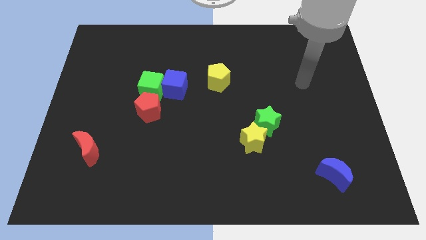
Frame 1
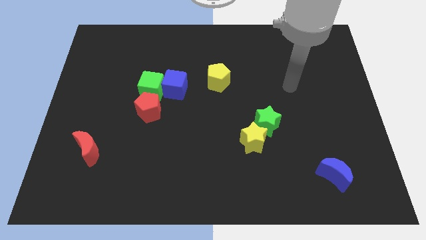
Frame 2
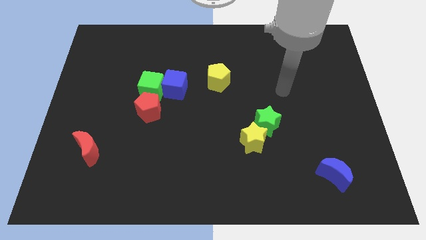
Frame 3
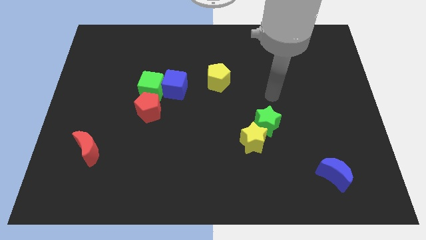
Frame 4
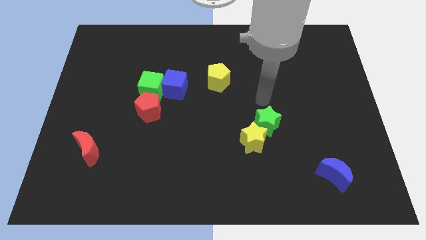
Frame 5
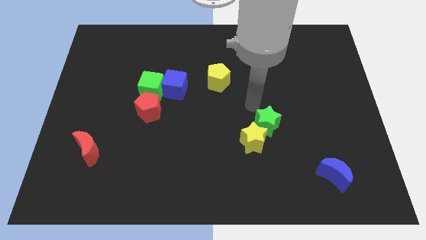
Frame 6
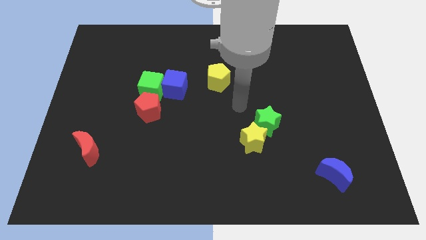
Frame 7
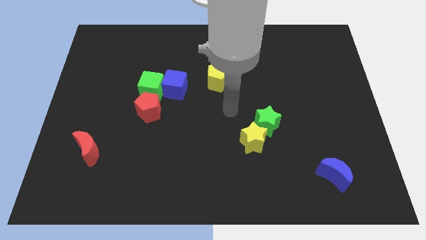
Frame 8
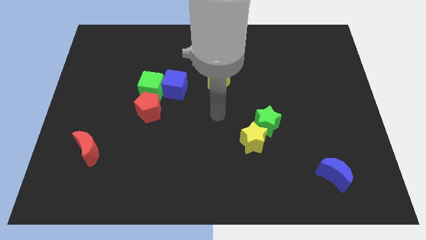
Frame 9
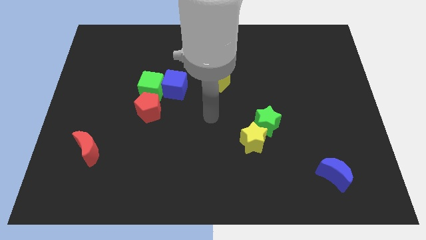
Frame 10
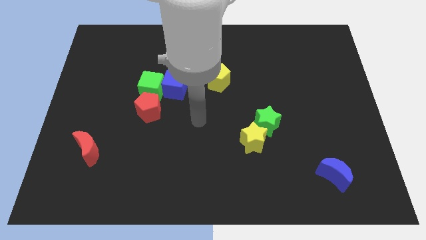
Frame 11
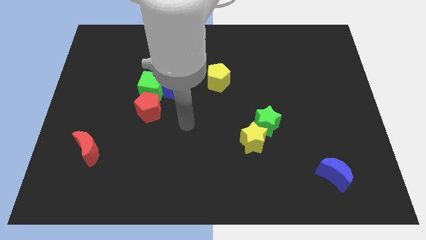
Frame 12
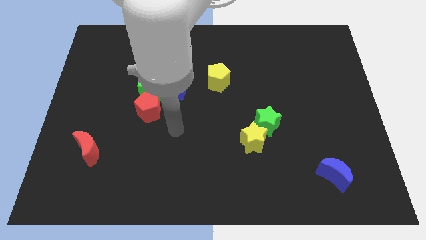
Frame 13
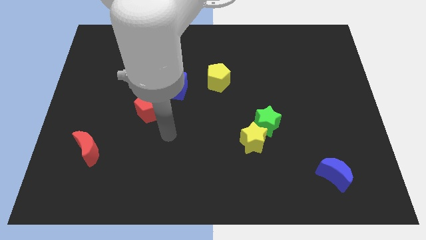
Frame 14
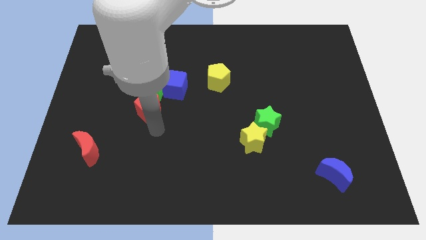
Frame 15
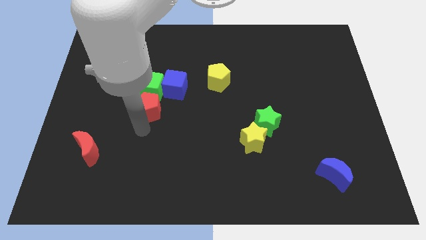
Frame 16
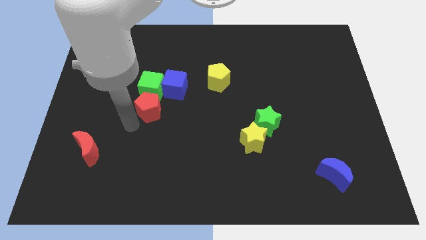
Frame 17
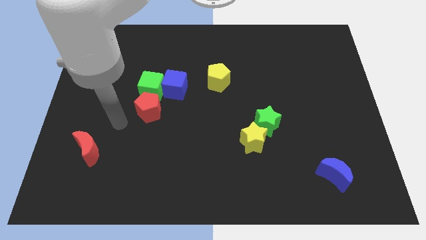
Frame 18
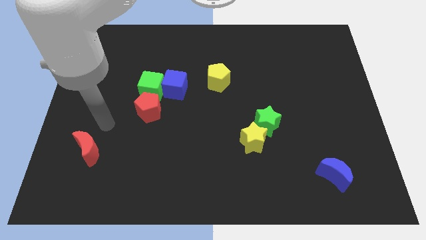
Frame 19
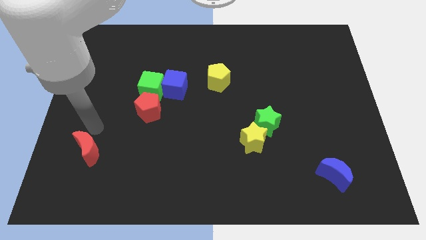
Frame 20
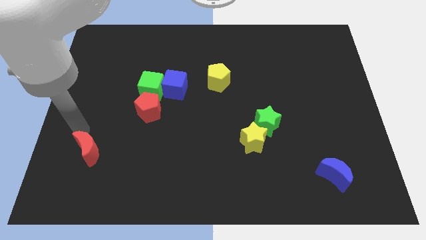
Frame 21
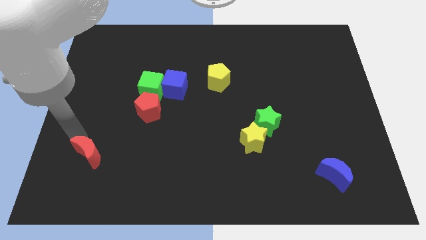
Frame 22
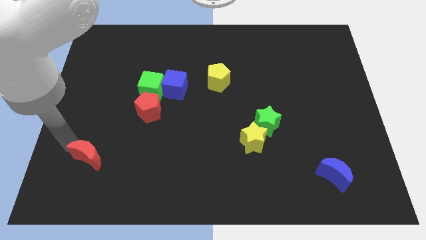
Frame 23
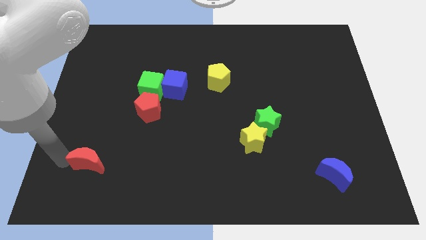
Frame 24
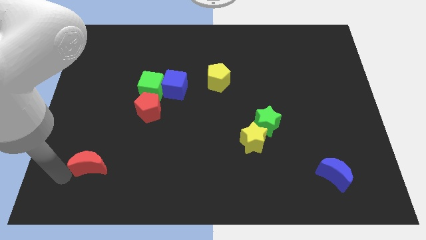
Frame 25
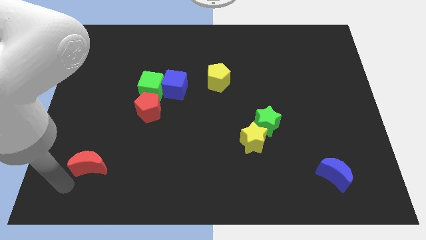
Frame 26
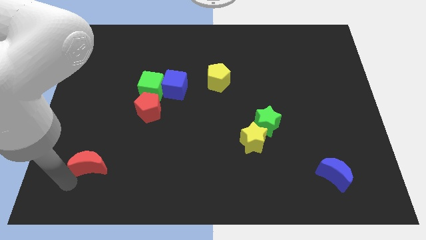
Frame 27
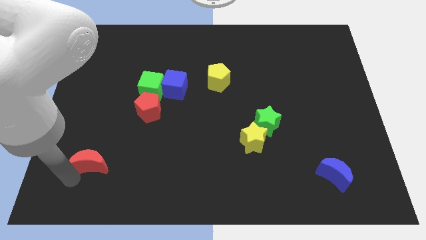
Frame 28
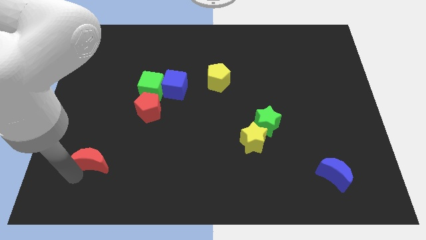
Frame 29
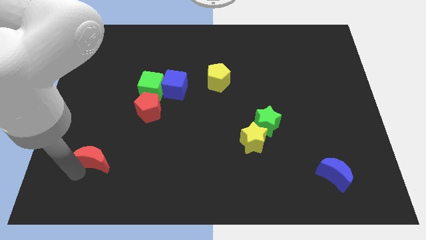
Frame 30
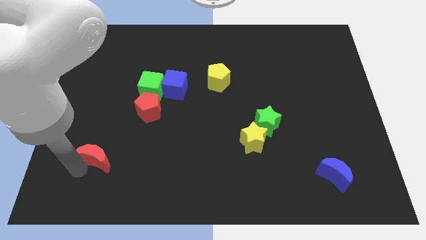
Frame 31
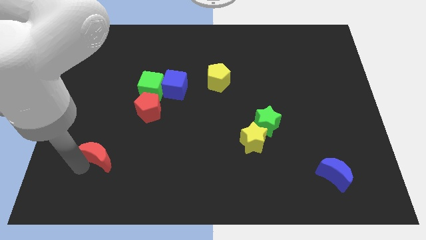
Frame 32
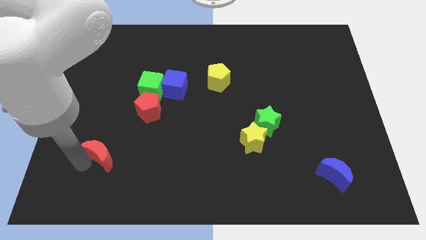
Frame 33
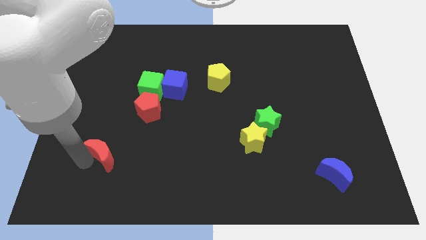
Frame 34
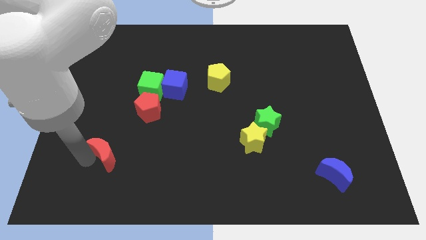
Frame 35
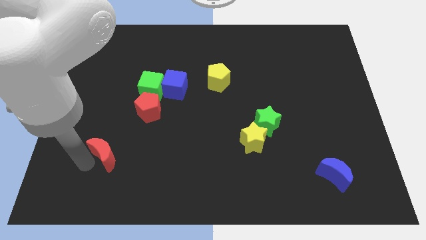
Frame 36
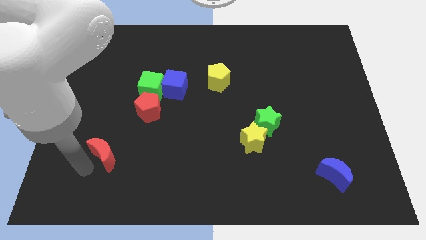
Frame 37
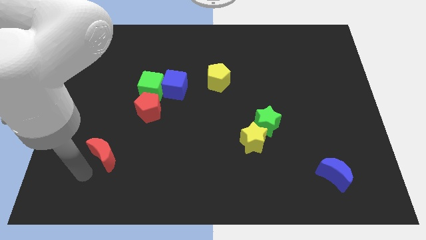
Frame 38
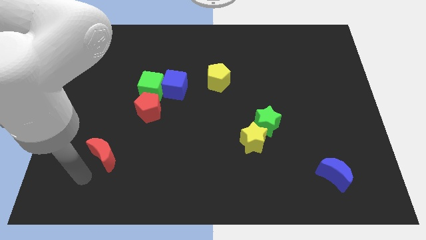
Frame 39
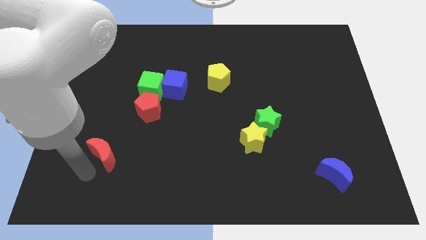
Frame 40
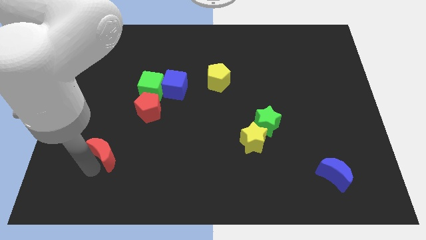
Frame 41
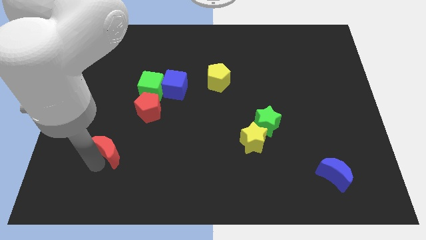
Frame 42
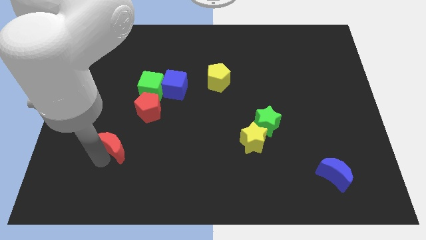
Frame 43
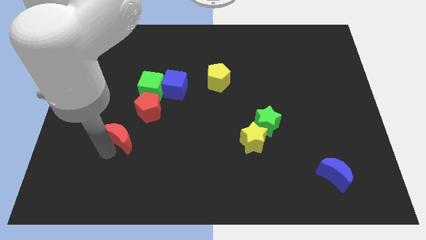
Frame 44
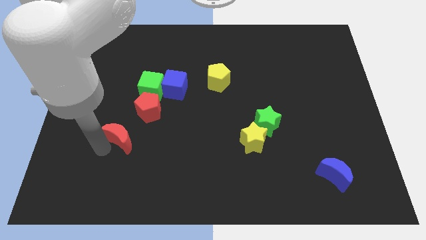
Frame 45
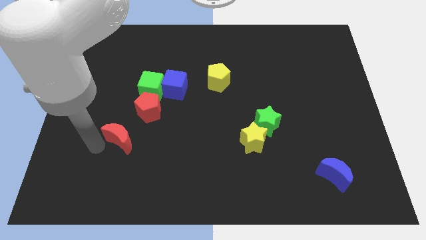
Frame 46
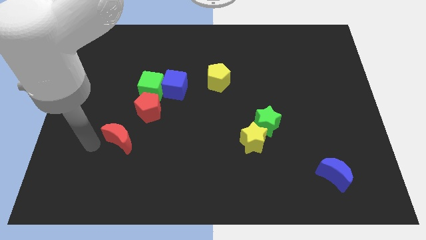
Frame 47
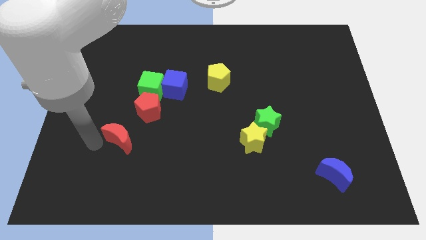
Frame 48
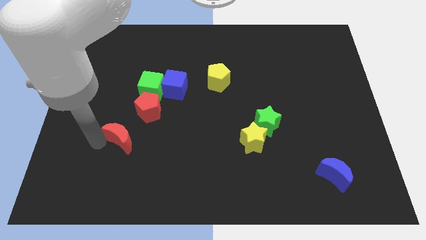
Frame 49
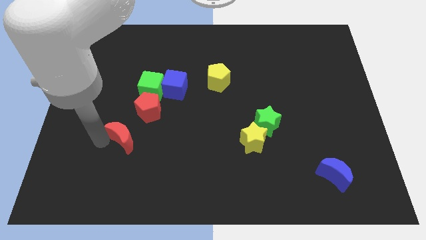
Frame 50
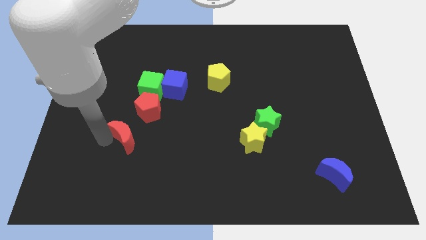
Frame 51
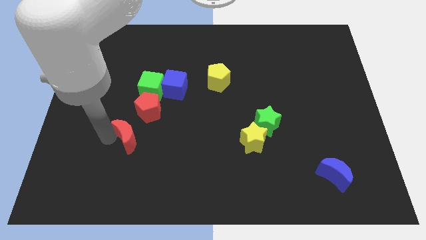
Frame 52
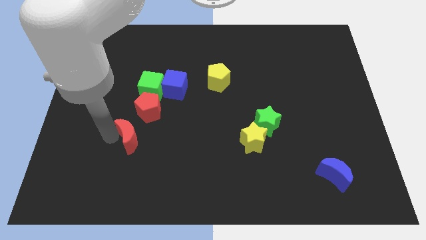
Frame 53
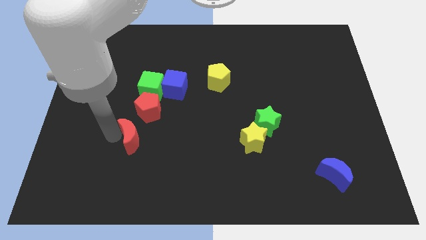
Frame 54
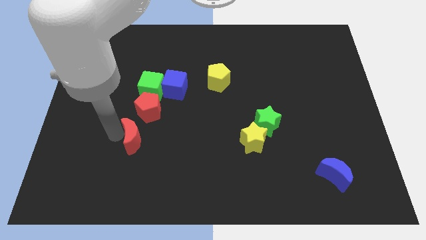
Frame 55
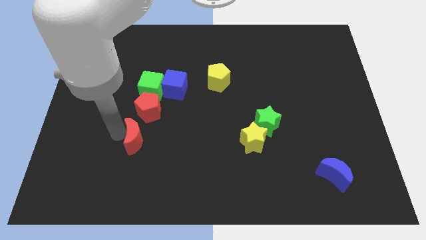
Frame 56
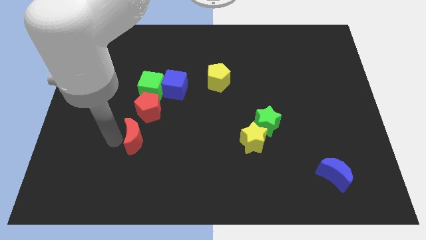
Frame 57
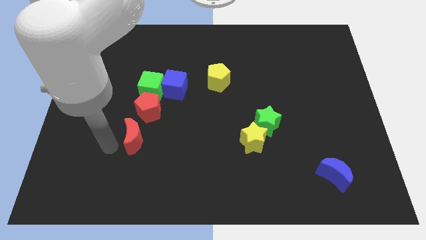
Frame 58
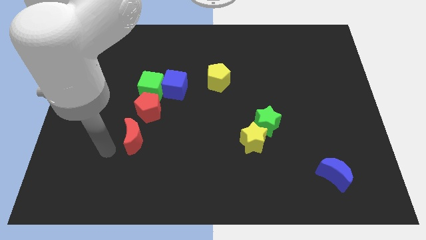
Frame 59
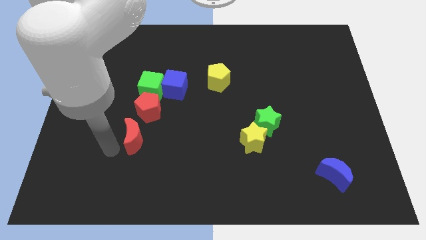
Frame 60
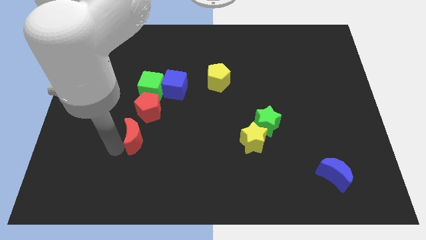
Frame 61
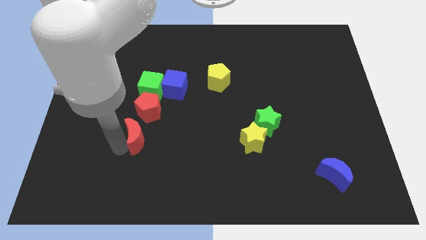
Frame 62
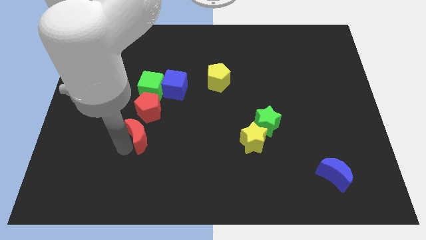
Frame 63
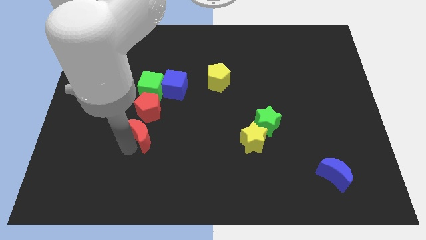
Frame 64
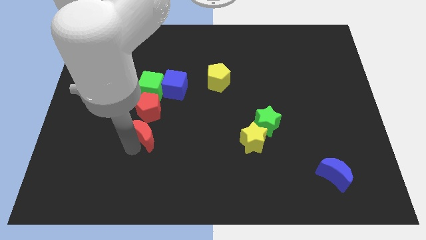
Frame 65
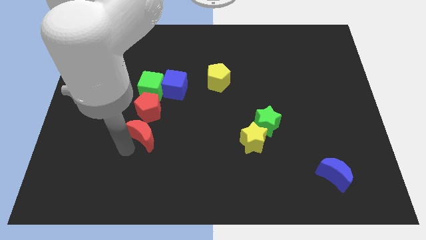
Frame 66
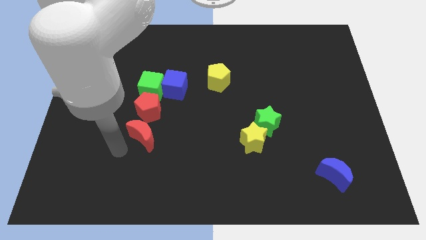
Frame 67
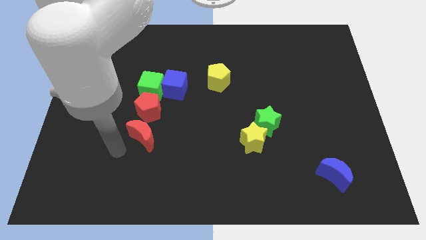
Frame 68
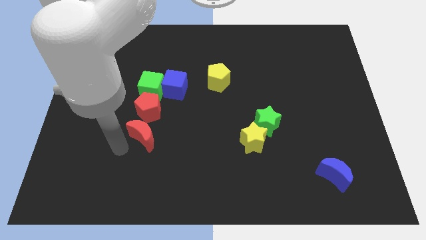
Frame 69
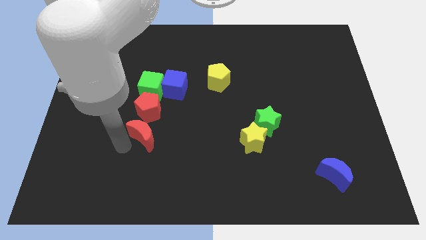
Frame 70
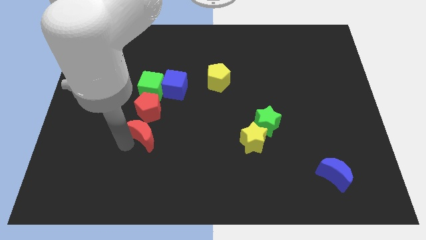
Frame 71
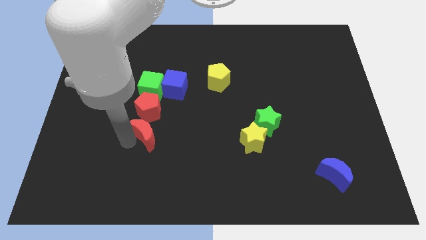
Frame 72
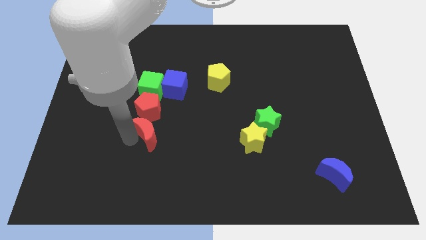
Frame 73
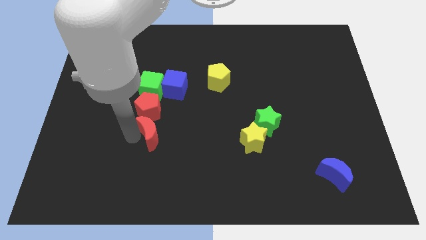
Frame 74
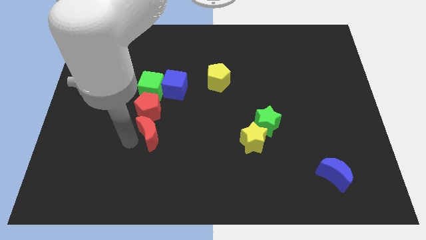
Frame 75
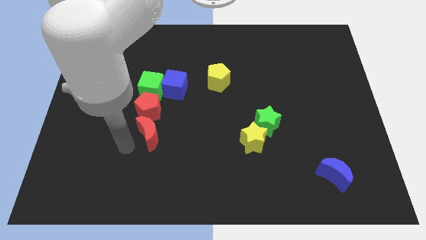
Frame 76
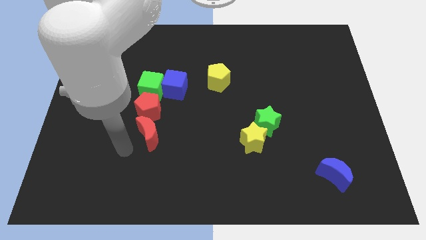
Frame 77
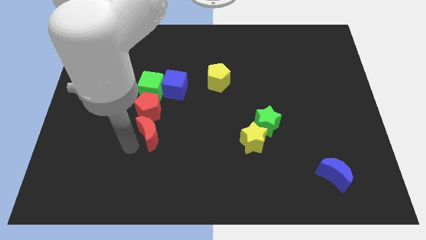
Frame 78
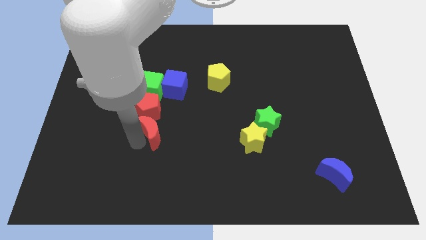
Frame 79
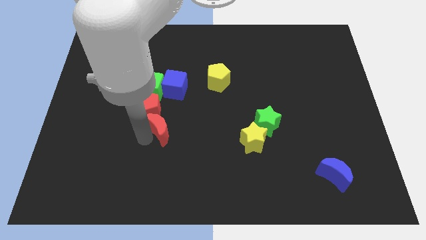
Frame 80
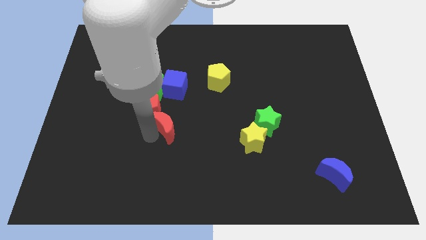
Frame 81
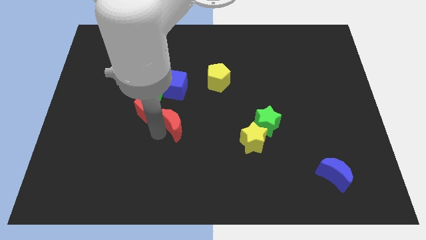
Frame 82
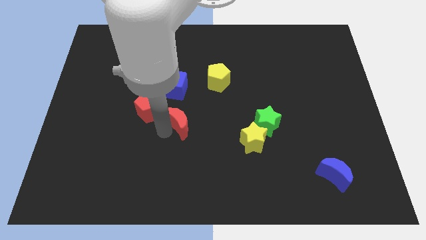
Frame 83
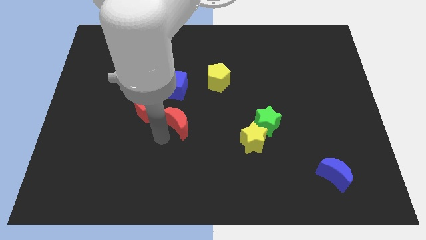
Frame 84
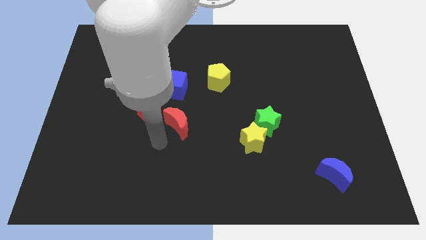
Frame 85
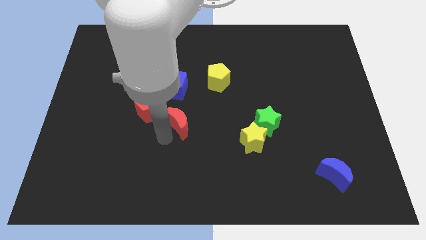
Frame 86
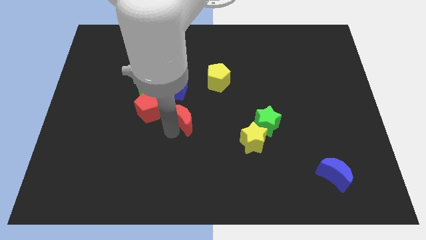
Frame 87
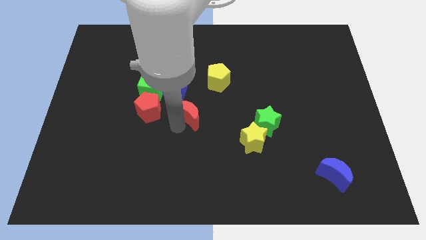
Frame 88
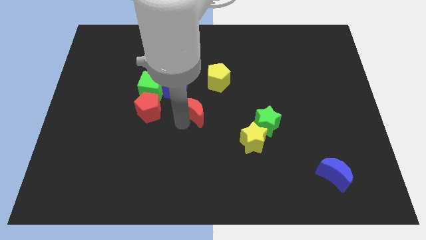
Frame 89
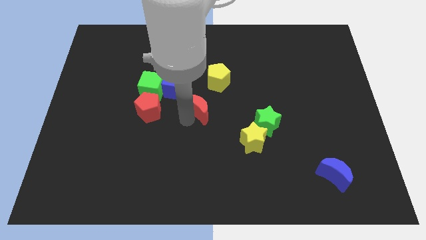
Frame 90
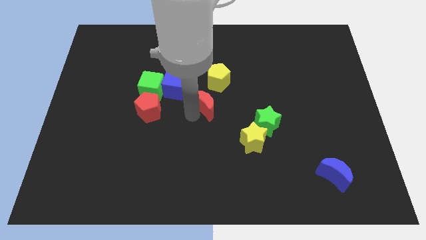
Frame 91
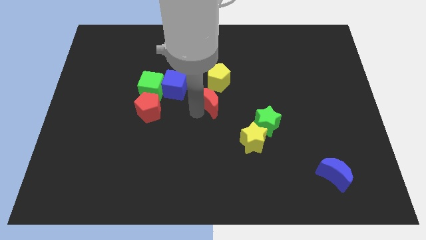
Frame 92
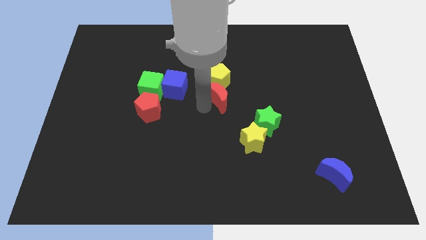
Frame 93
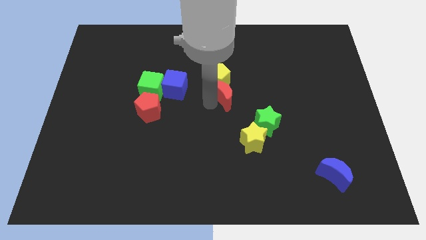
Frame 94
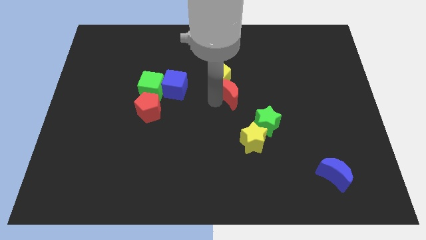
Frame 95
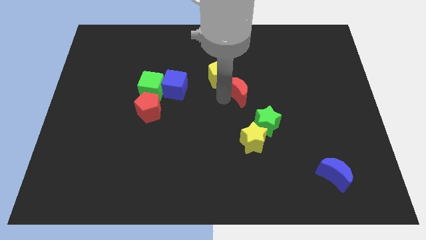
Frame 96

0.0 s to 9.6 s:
put the red moon just right of the yellow pentagon
